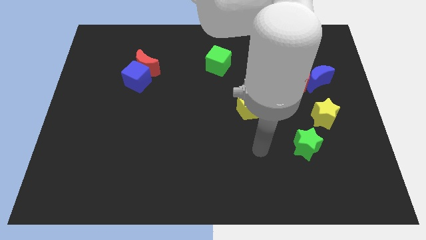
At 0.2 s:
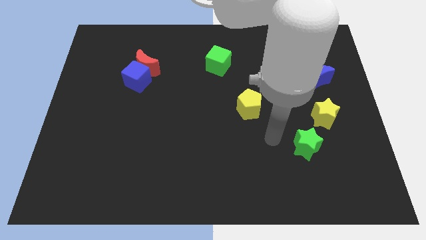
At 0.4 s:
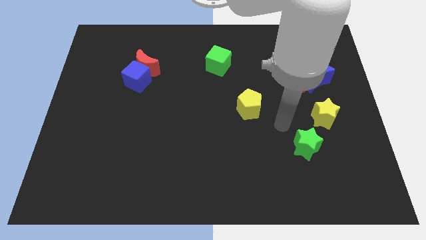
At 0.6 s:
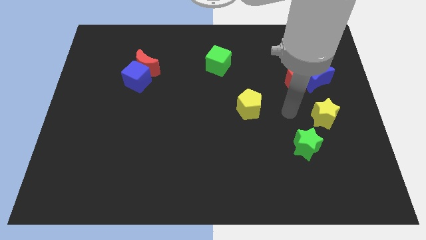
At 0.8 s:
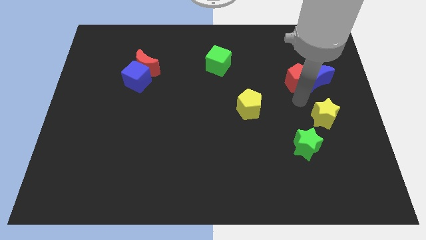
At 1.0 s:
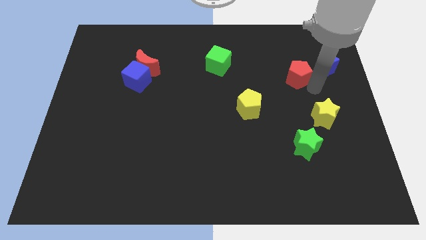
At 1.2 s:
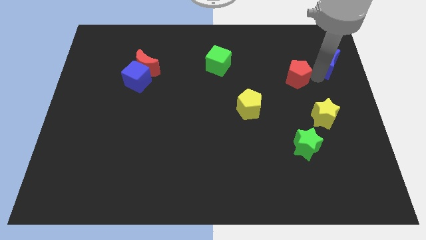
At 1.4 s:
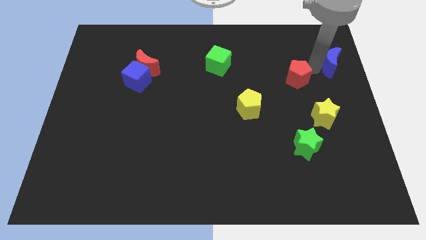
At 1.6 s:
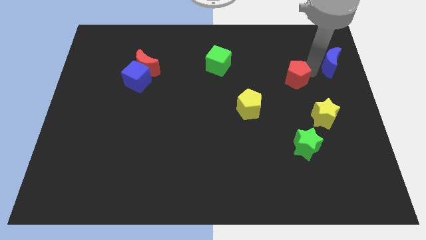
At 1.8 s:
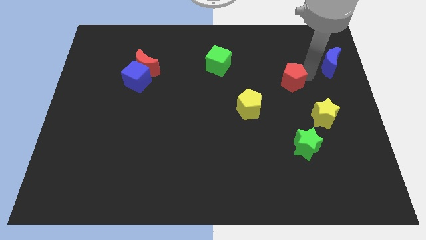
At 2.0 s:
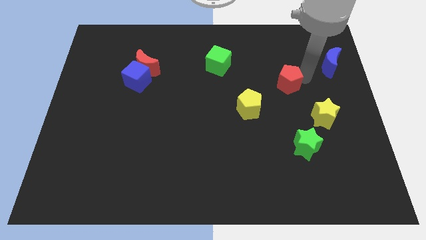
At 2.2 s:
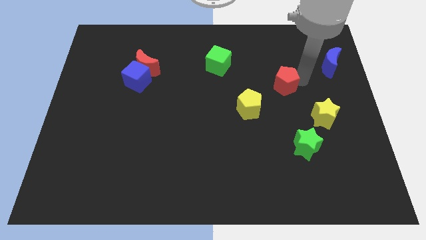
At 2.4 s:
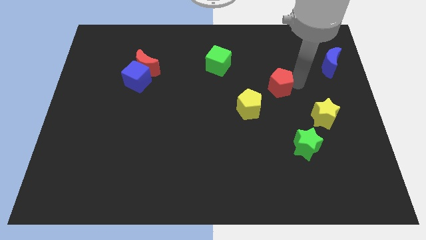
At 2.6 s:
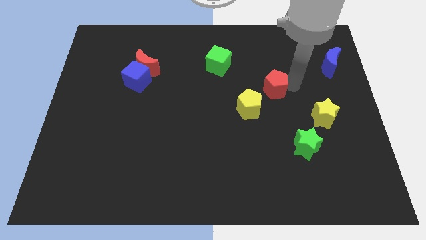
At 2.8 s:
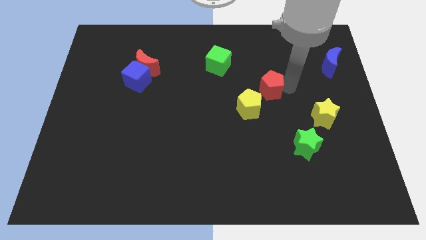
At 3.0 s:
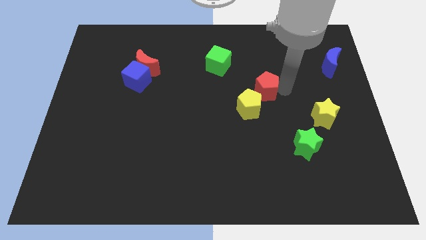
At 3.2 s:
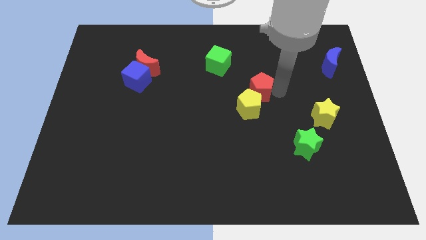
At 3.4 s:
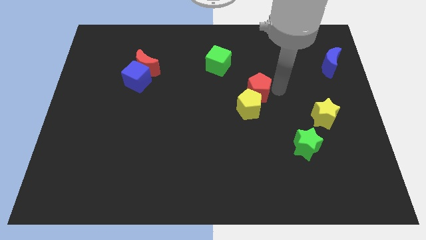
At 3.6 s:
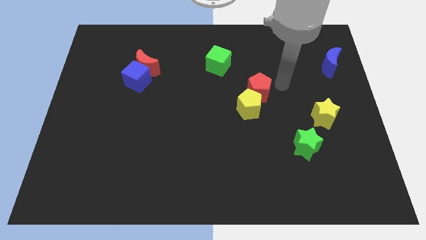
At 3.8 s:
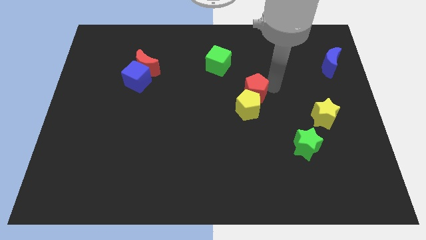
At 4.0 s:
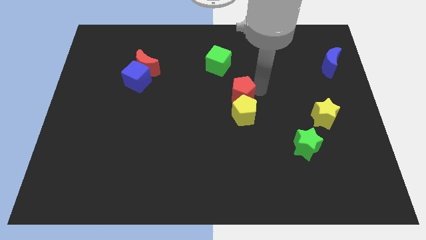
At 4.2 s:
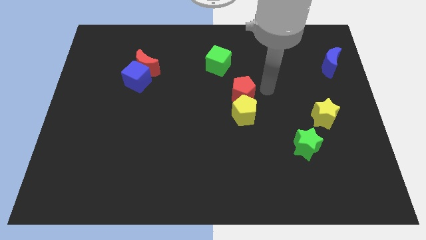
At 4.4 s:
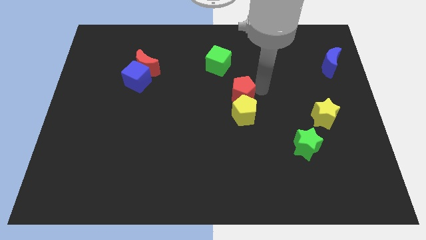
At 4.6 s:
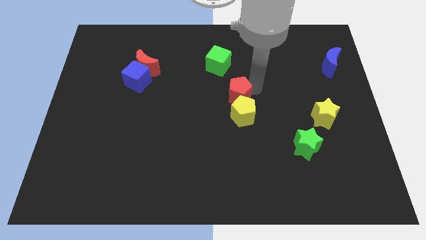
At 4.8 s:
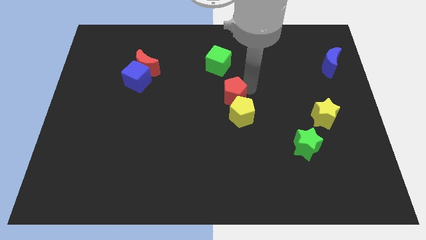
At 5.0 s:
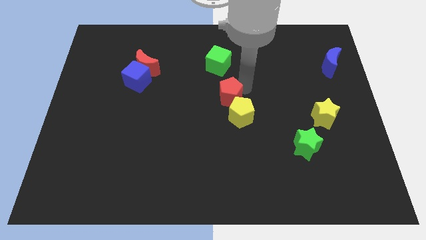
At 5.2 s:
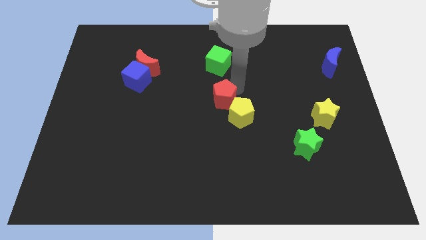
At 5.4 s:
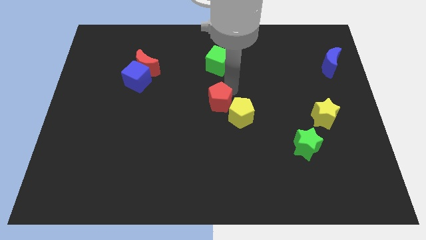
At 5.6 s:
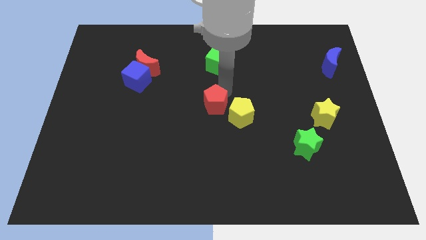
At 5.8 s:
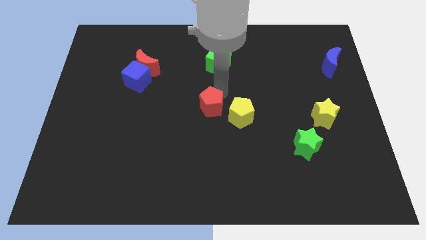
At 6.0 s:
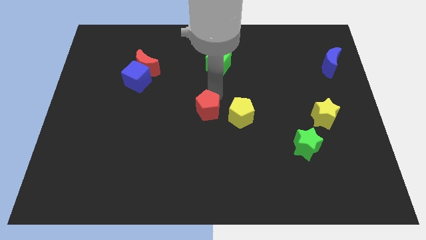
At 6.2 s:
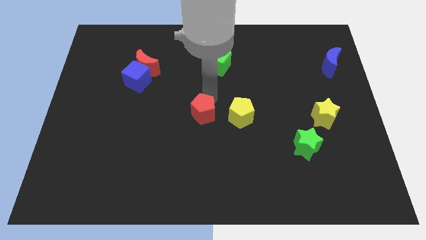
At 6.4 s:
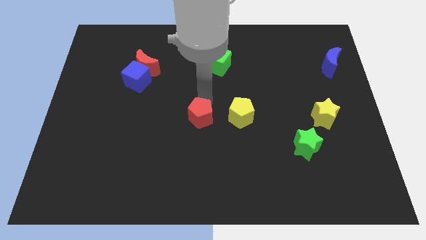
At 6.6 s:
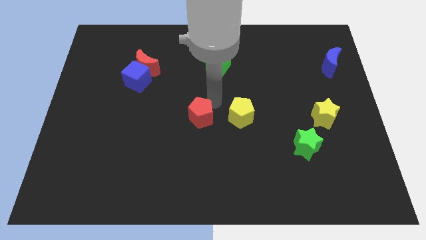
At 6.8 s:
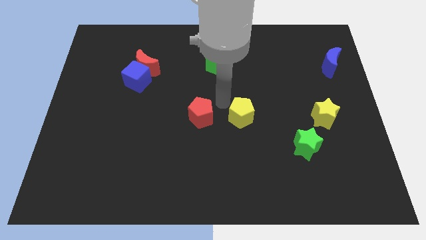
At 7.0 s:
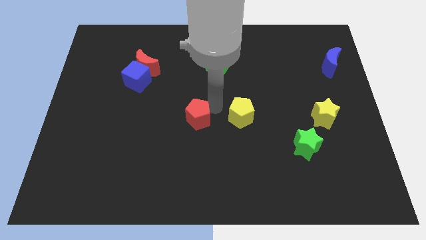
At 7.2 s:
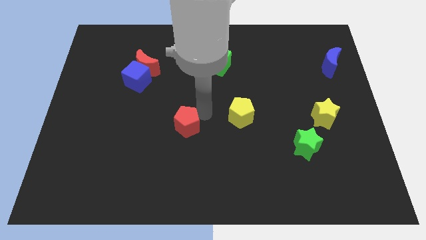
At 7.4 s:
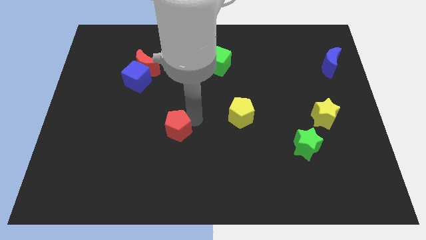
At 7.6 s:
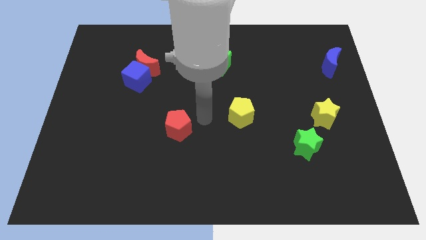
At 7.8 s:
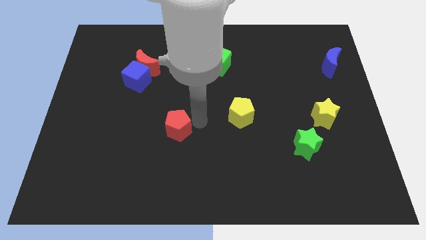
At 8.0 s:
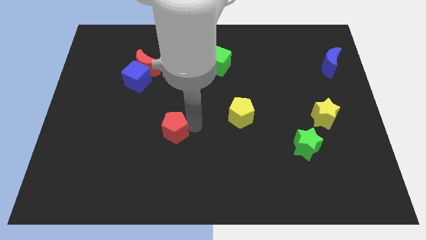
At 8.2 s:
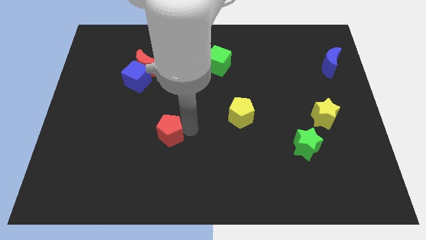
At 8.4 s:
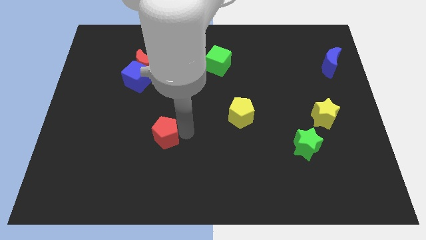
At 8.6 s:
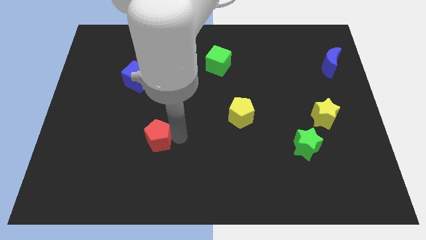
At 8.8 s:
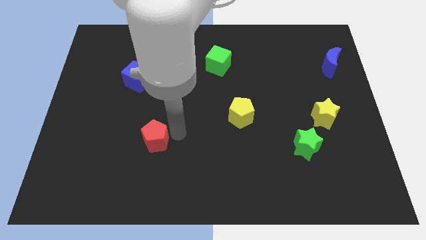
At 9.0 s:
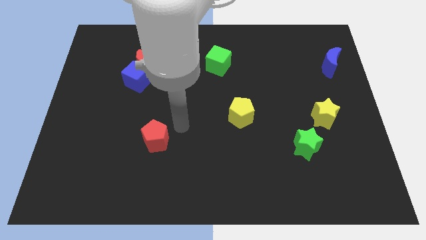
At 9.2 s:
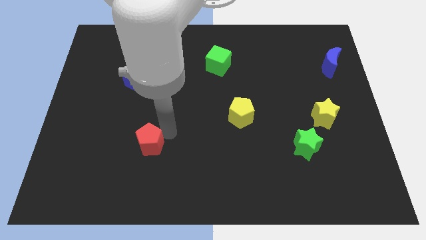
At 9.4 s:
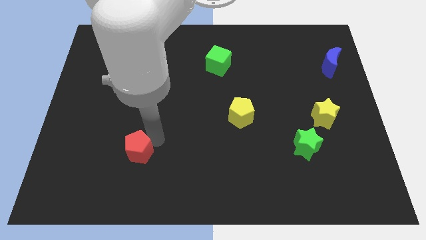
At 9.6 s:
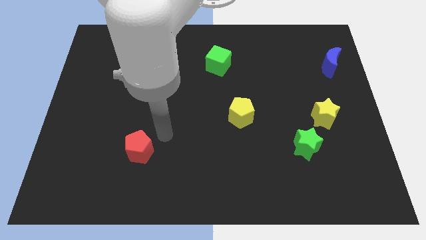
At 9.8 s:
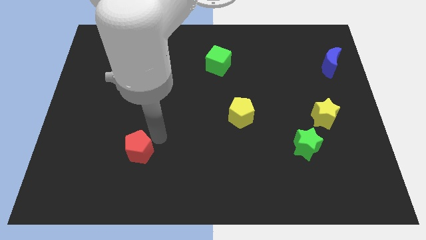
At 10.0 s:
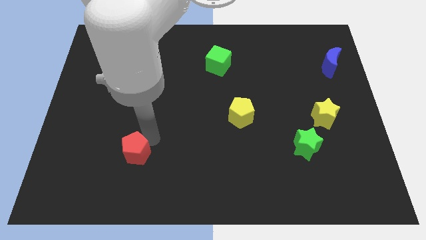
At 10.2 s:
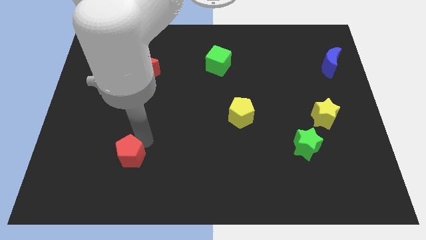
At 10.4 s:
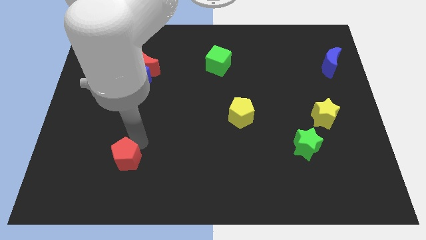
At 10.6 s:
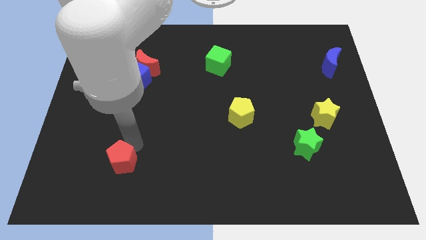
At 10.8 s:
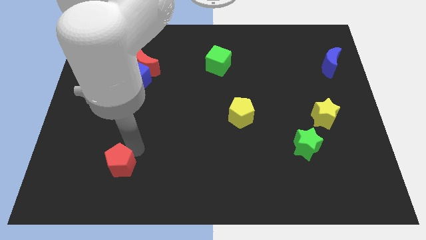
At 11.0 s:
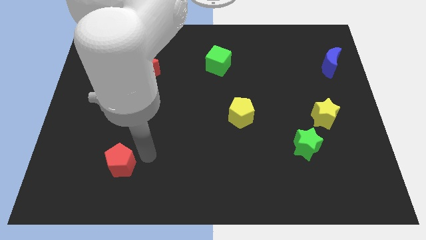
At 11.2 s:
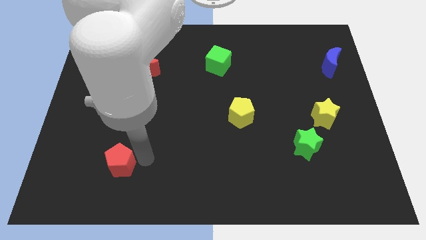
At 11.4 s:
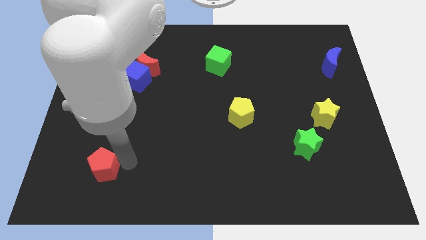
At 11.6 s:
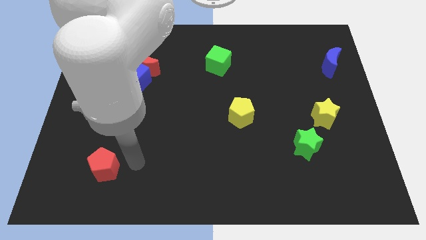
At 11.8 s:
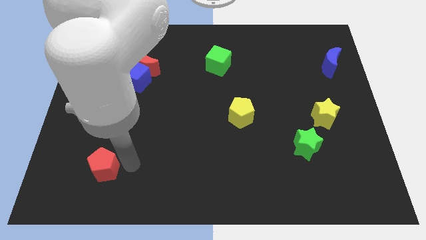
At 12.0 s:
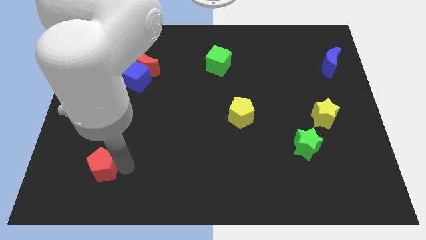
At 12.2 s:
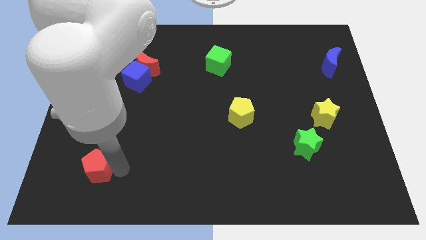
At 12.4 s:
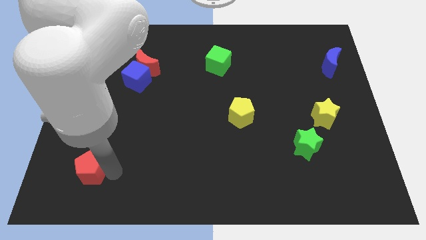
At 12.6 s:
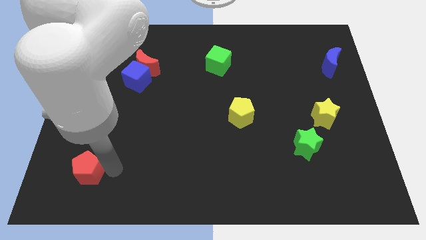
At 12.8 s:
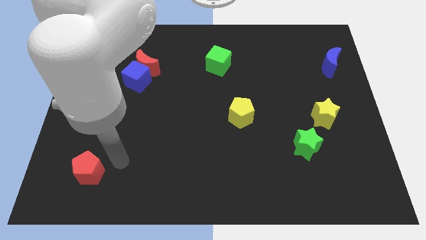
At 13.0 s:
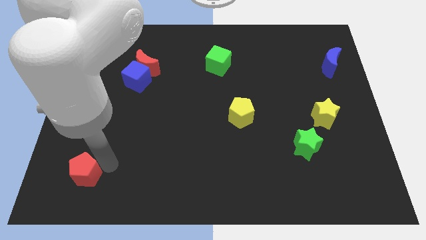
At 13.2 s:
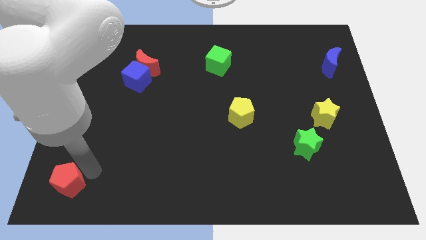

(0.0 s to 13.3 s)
move the red pentagon to the bottom left
